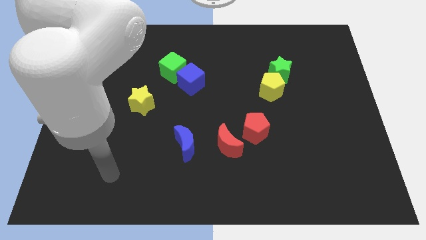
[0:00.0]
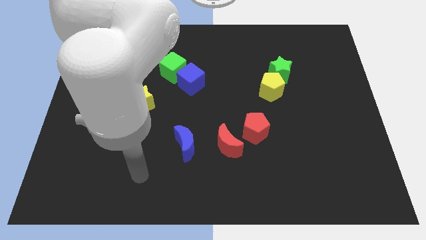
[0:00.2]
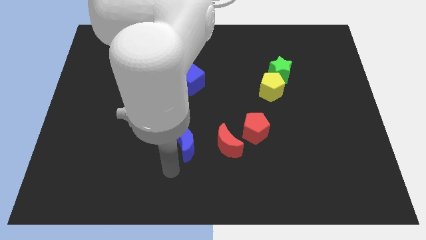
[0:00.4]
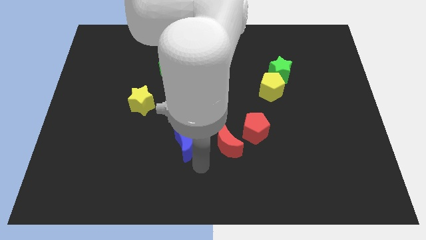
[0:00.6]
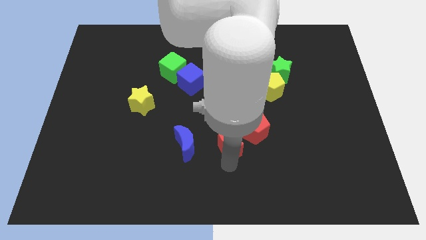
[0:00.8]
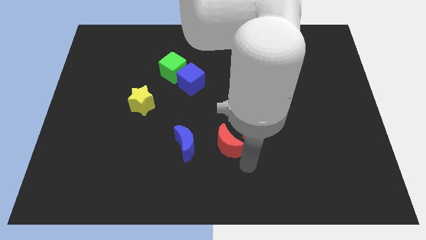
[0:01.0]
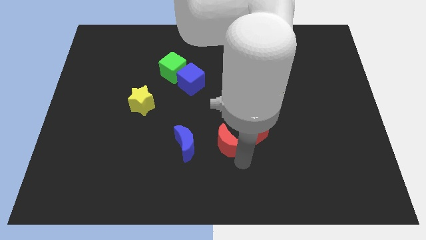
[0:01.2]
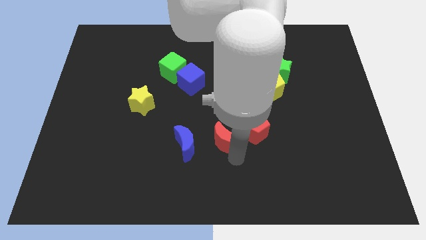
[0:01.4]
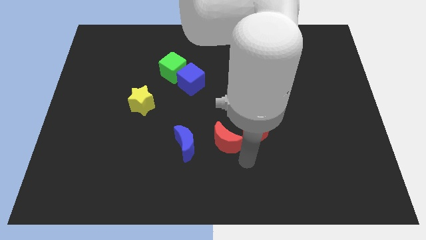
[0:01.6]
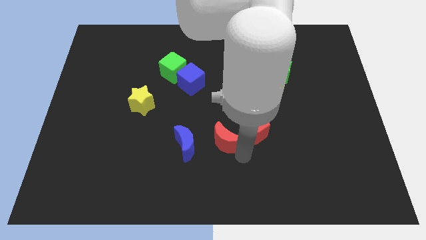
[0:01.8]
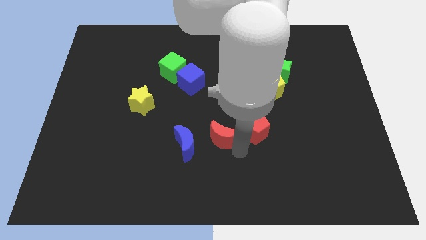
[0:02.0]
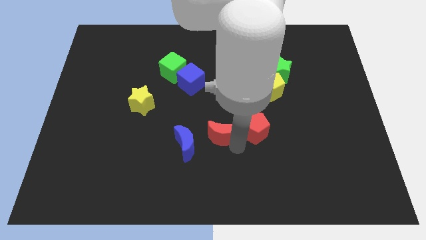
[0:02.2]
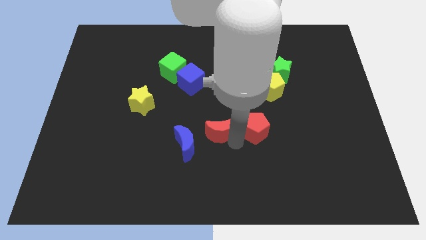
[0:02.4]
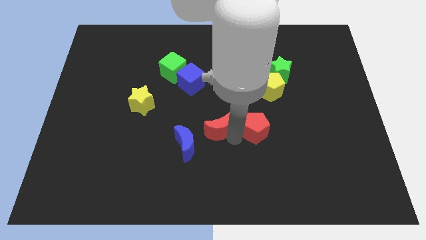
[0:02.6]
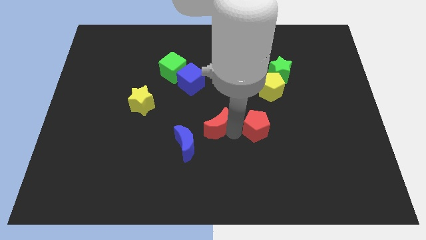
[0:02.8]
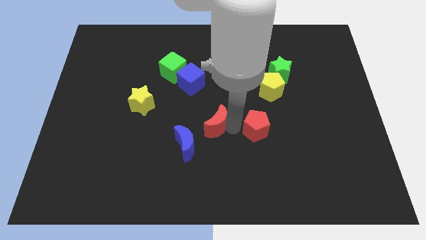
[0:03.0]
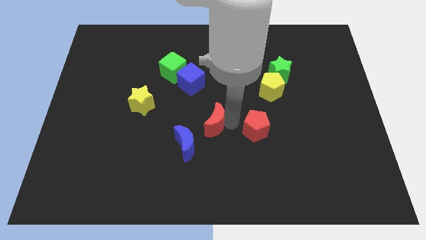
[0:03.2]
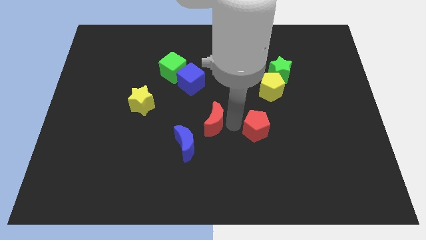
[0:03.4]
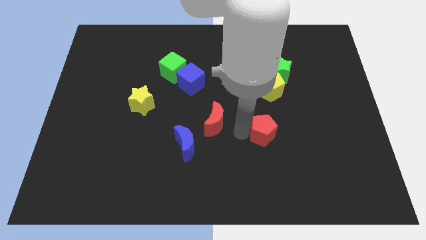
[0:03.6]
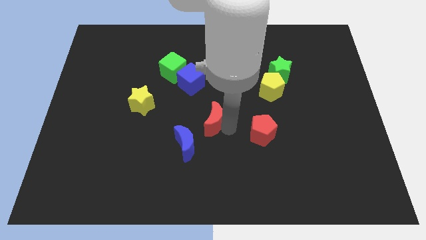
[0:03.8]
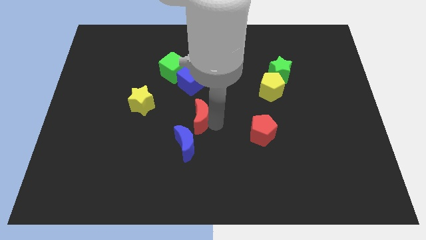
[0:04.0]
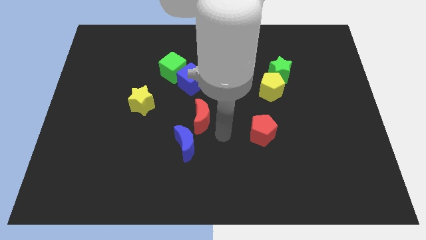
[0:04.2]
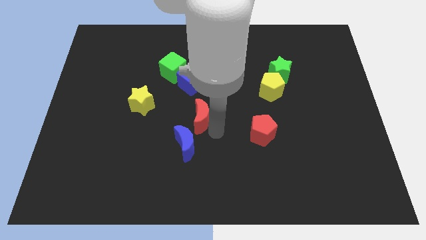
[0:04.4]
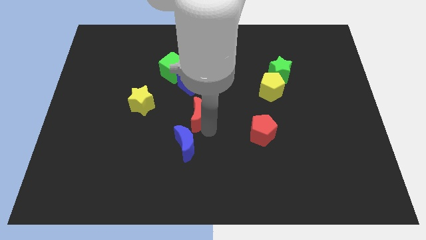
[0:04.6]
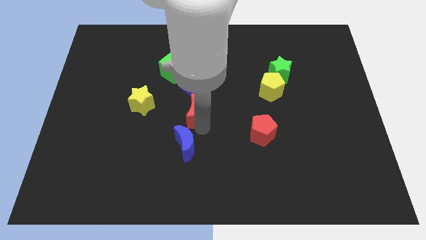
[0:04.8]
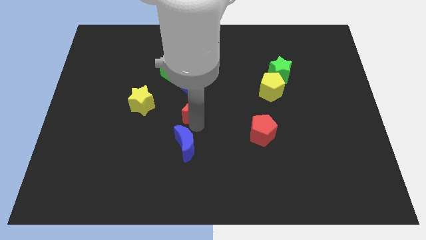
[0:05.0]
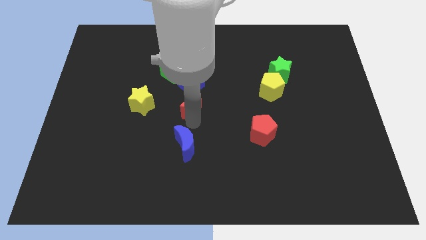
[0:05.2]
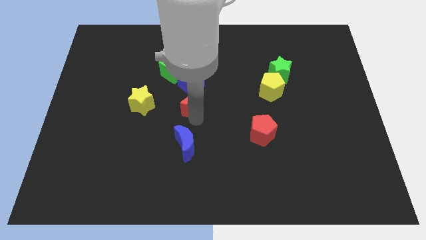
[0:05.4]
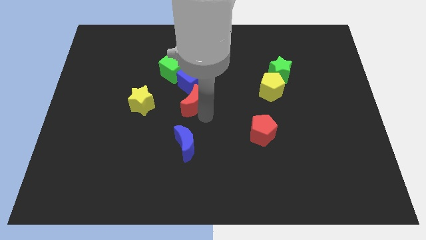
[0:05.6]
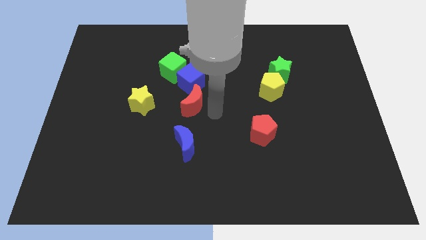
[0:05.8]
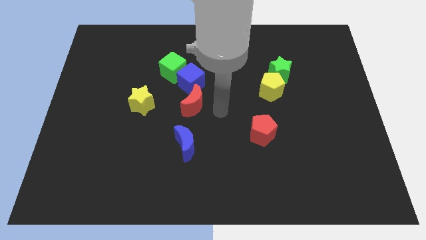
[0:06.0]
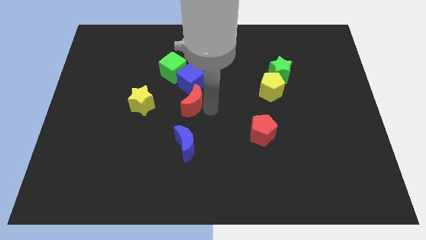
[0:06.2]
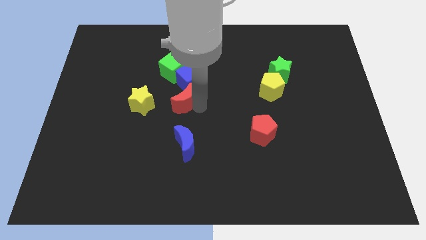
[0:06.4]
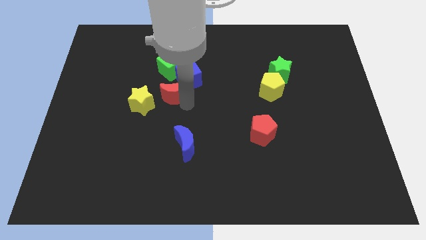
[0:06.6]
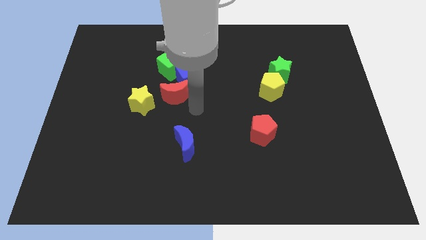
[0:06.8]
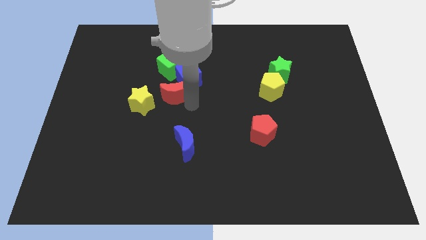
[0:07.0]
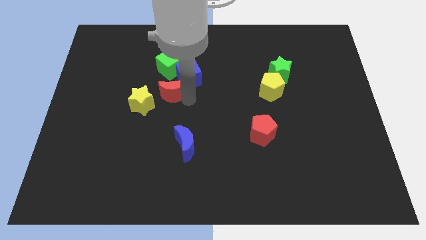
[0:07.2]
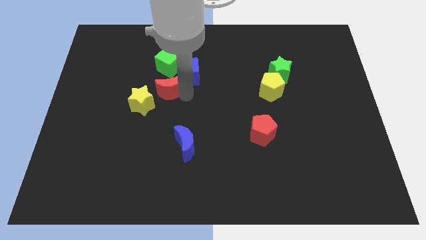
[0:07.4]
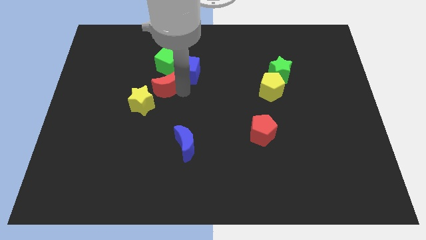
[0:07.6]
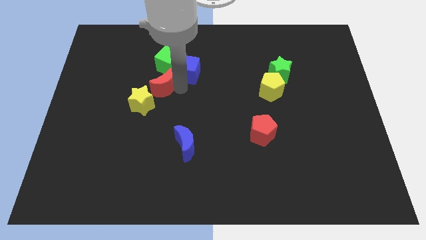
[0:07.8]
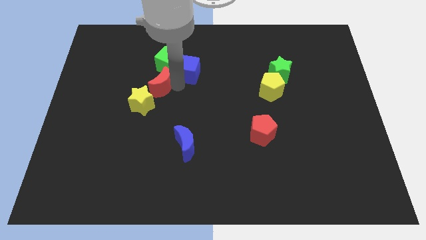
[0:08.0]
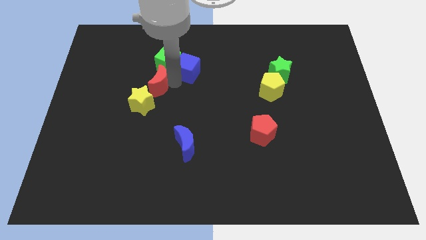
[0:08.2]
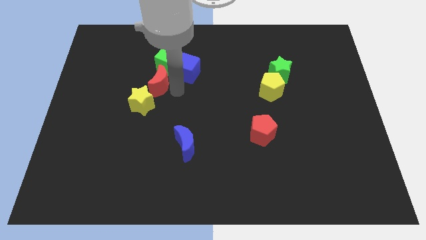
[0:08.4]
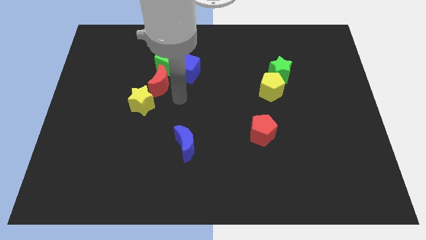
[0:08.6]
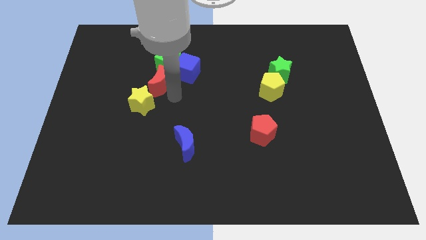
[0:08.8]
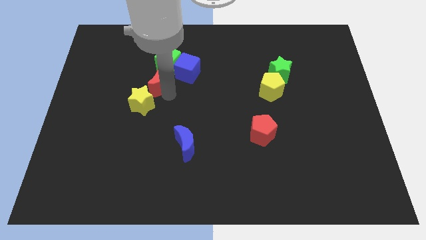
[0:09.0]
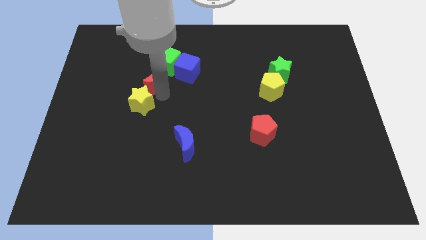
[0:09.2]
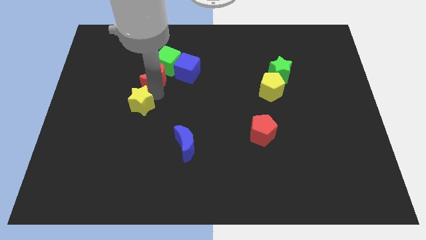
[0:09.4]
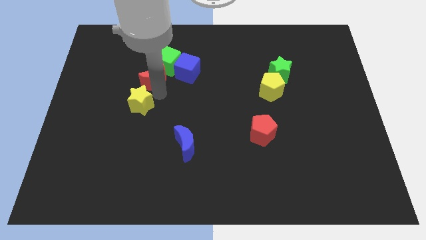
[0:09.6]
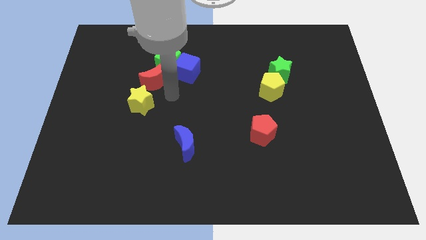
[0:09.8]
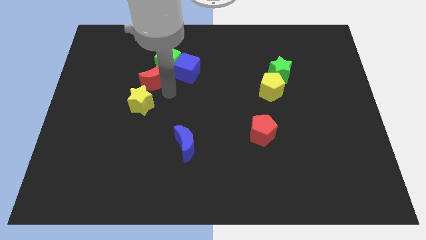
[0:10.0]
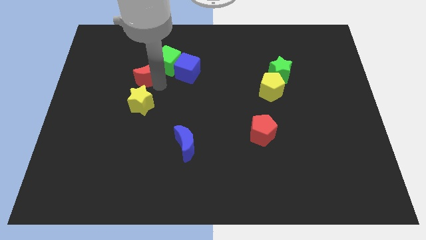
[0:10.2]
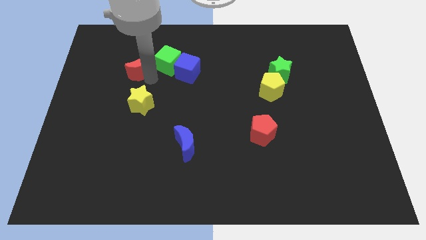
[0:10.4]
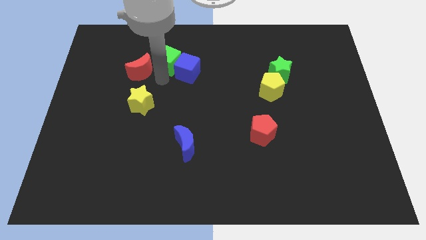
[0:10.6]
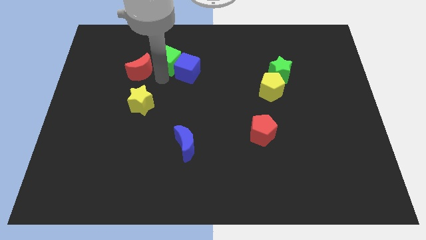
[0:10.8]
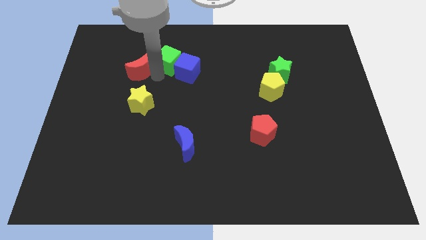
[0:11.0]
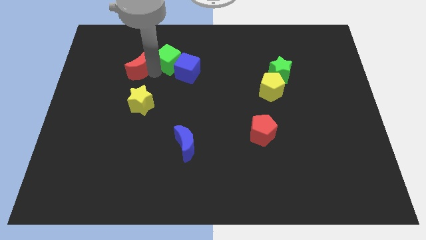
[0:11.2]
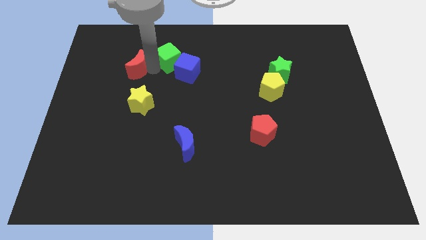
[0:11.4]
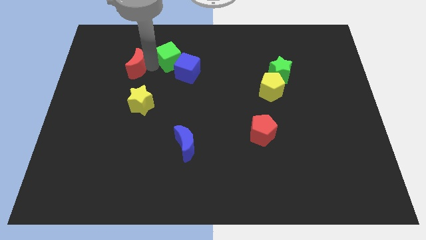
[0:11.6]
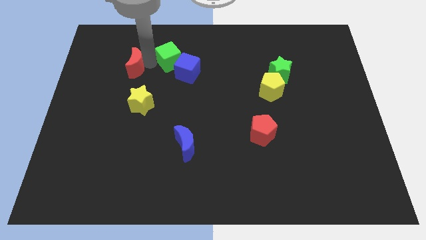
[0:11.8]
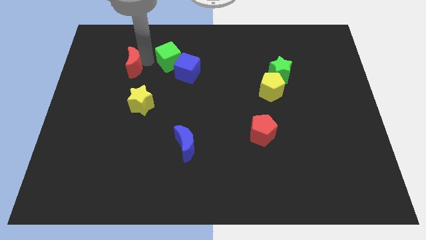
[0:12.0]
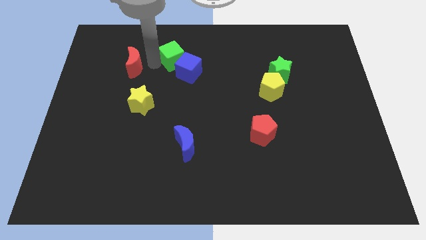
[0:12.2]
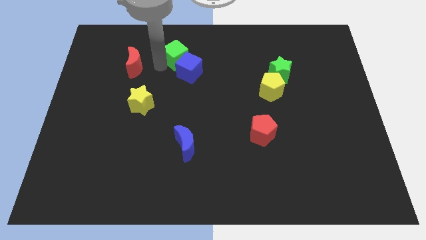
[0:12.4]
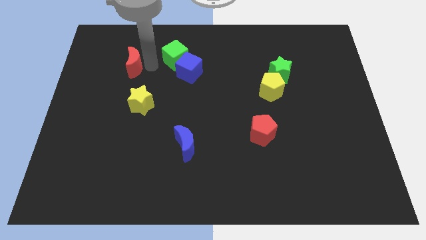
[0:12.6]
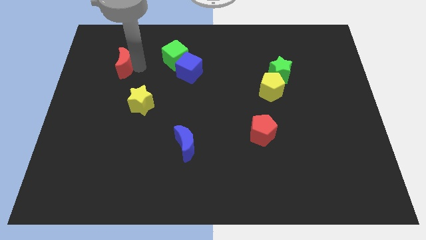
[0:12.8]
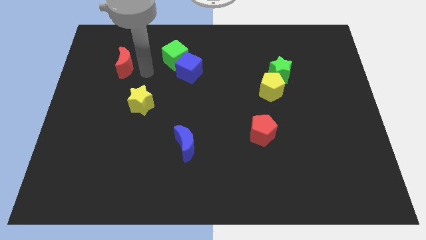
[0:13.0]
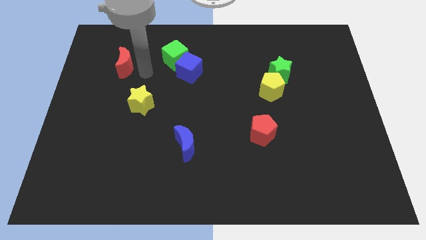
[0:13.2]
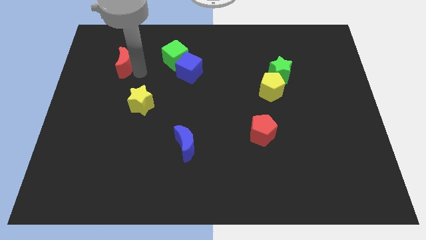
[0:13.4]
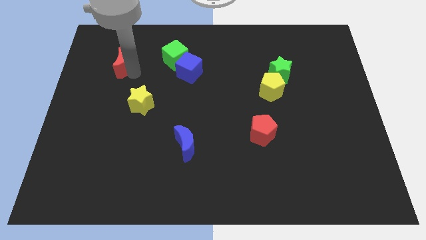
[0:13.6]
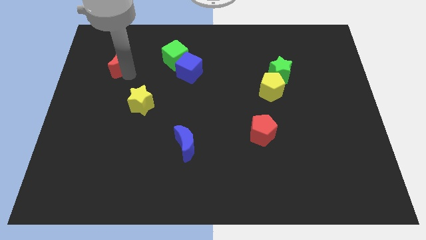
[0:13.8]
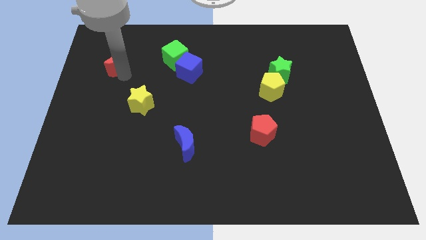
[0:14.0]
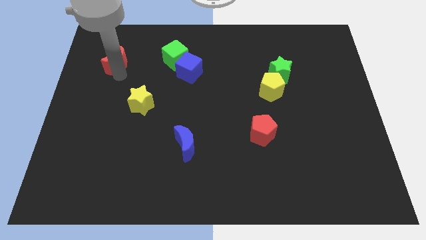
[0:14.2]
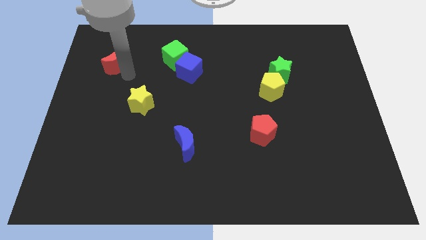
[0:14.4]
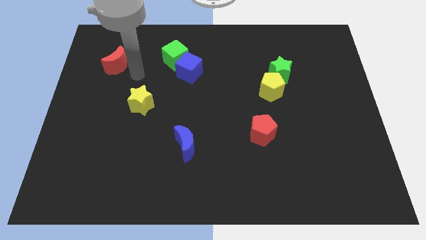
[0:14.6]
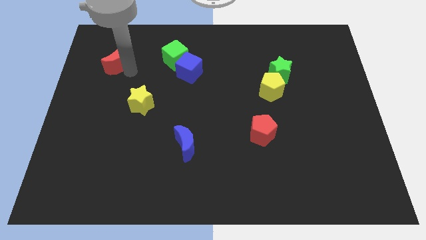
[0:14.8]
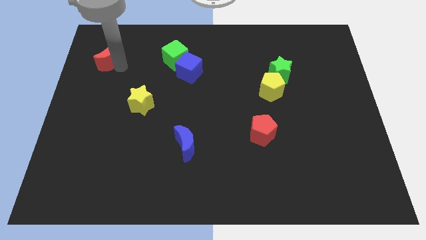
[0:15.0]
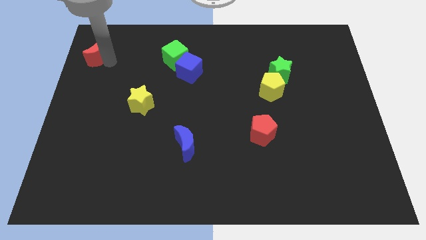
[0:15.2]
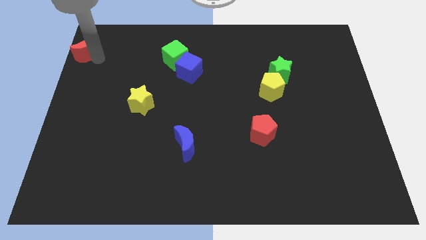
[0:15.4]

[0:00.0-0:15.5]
move the red moon to the top left of the board

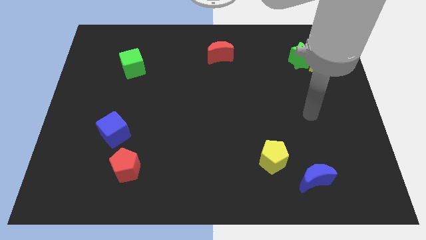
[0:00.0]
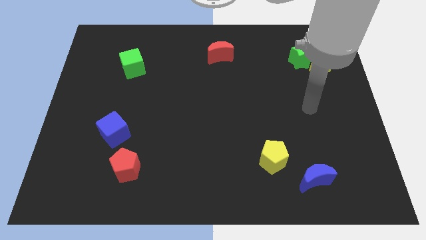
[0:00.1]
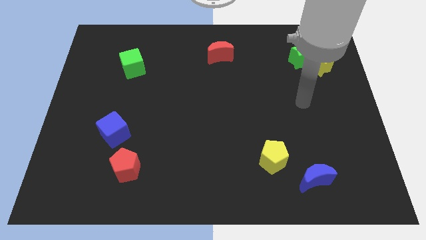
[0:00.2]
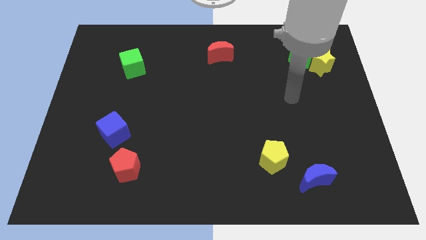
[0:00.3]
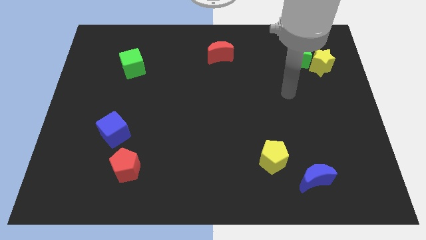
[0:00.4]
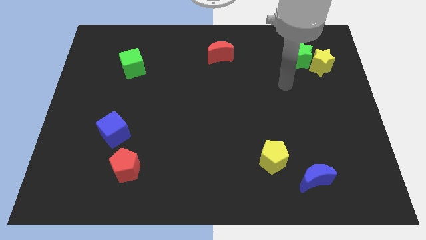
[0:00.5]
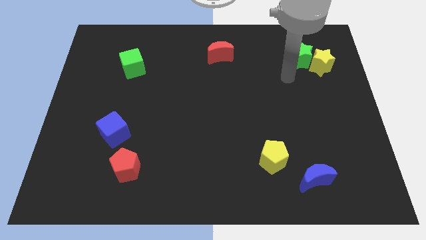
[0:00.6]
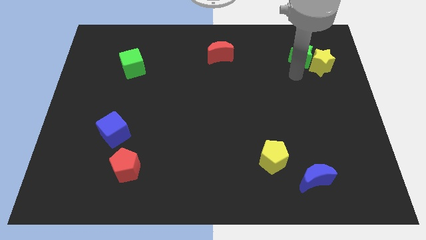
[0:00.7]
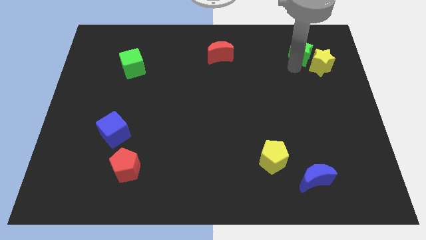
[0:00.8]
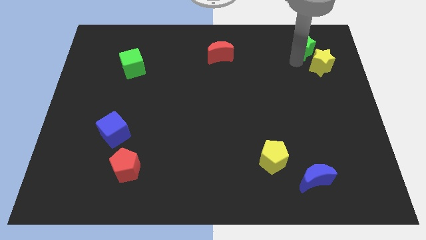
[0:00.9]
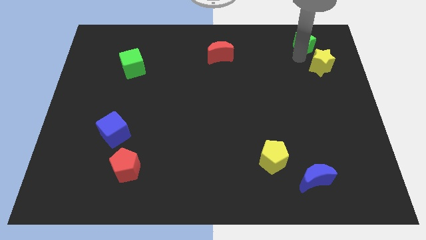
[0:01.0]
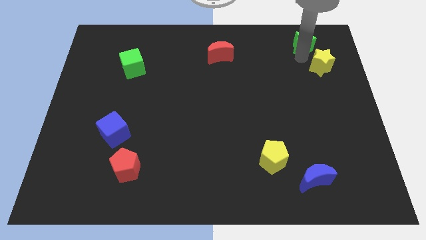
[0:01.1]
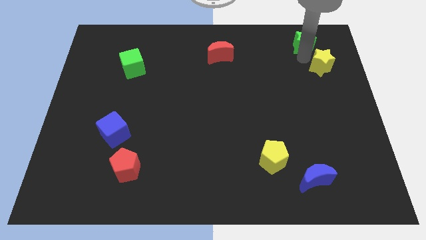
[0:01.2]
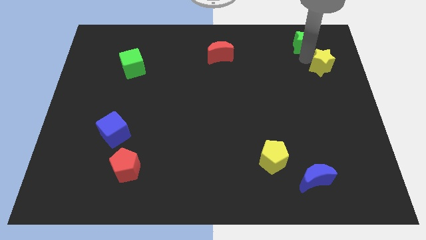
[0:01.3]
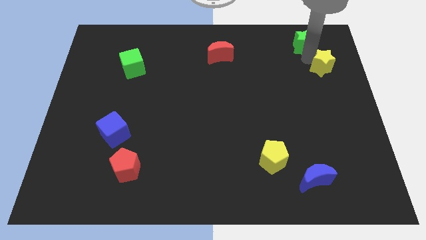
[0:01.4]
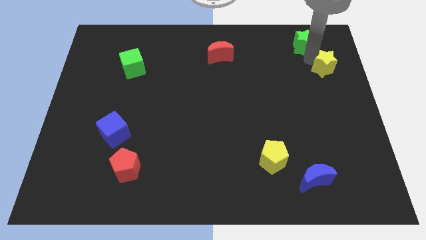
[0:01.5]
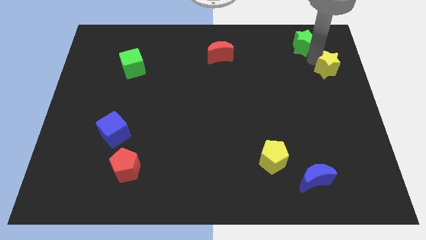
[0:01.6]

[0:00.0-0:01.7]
move the yellow star to the right side of the board
